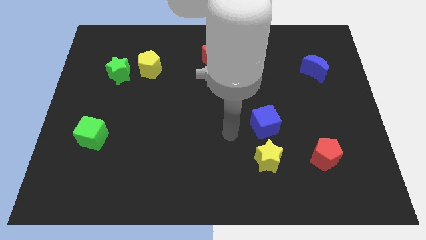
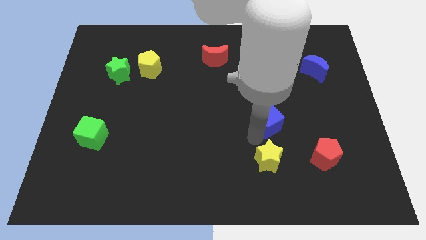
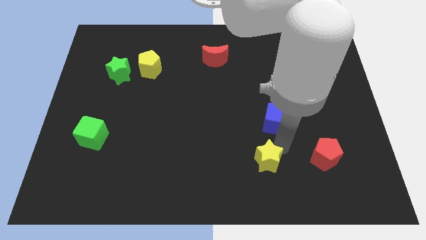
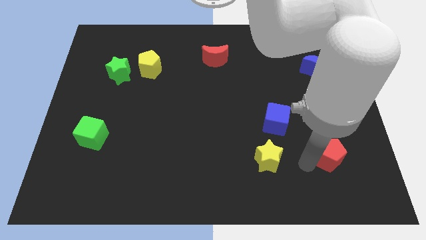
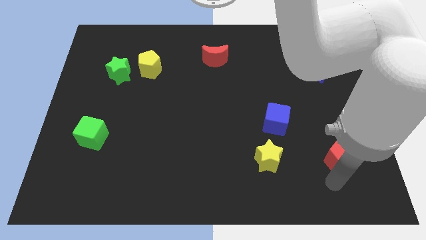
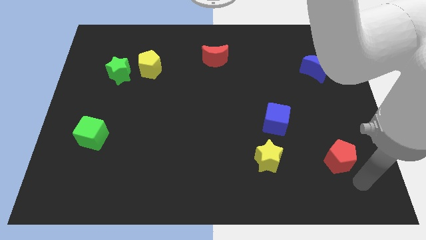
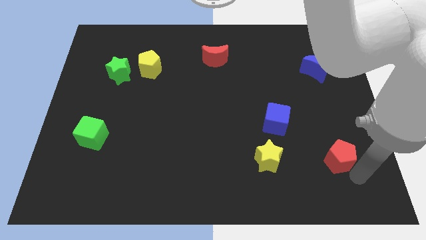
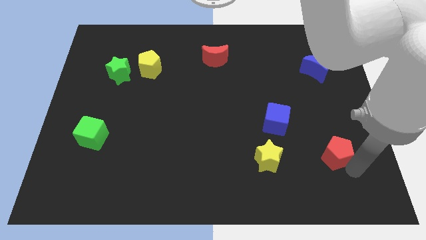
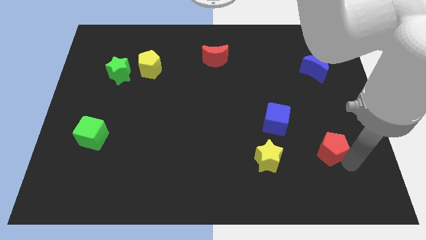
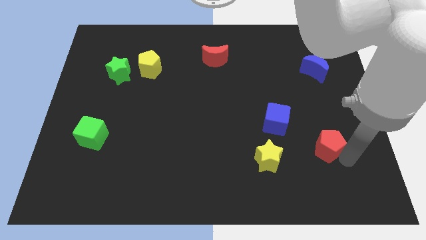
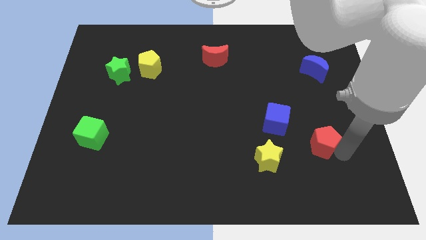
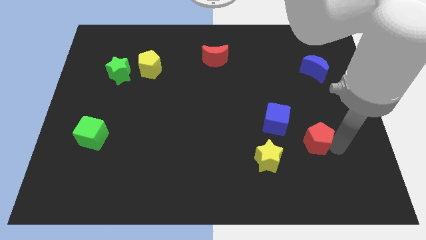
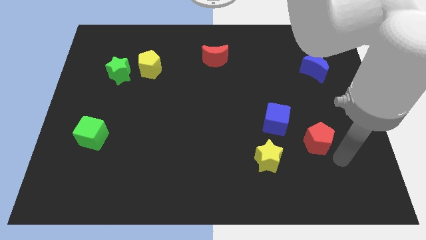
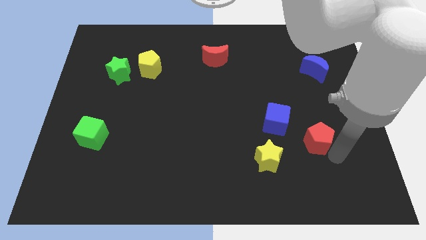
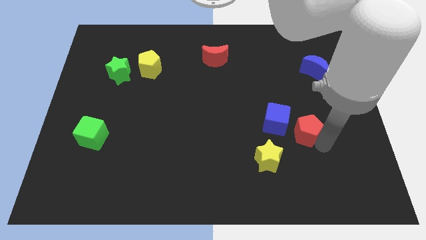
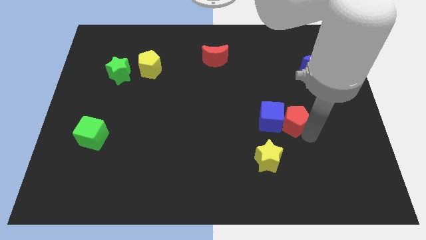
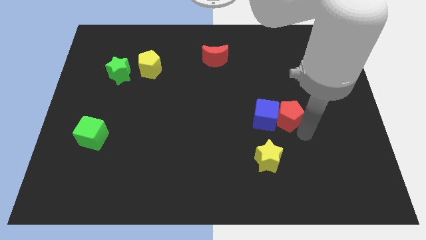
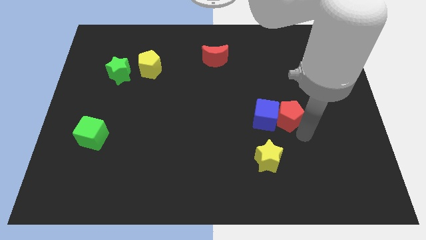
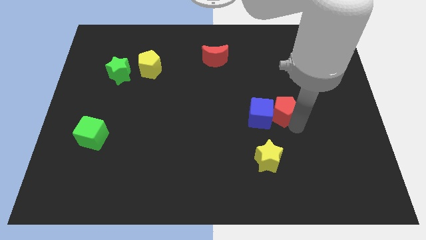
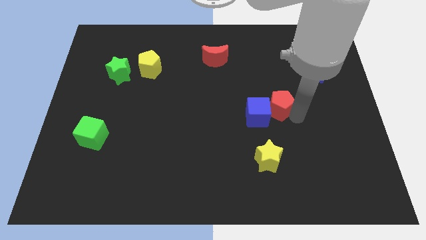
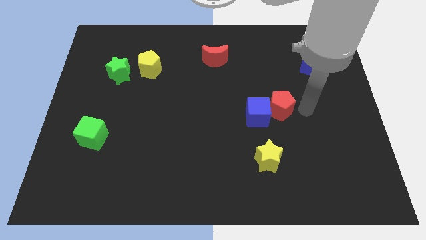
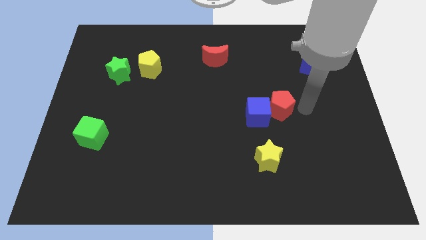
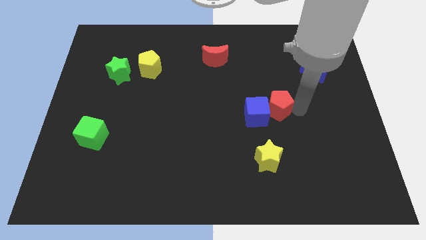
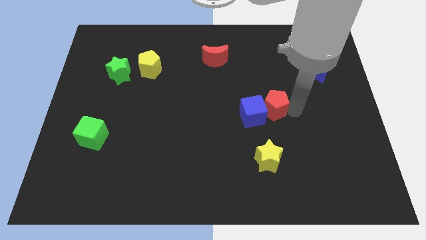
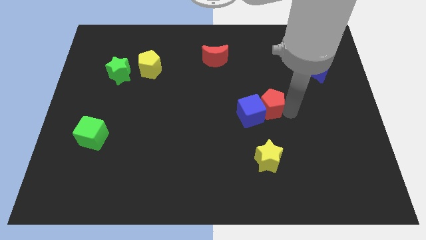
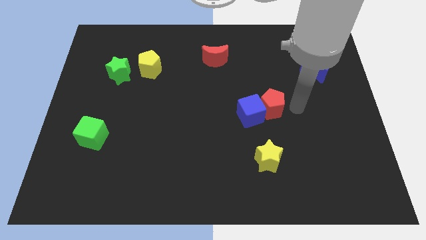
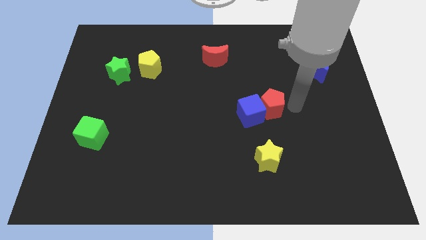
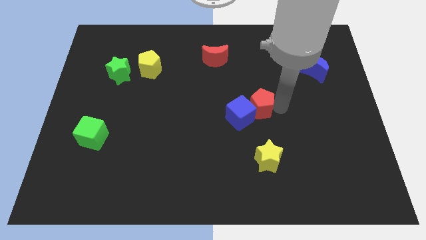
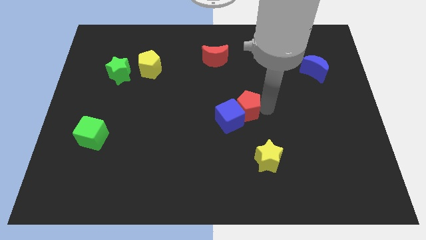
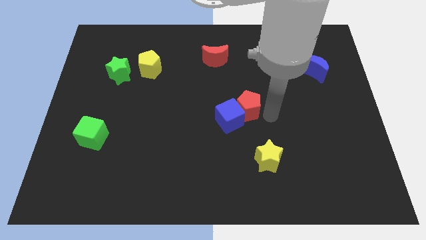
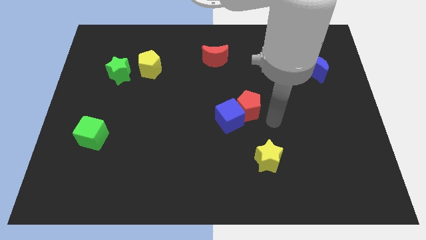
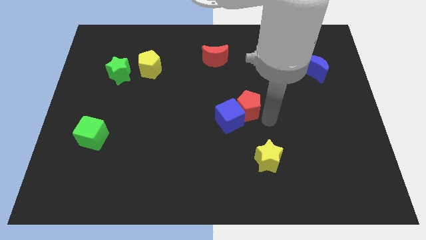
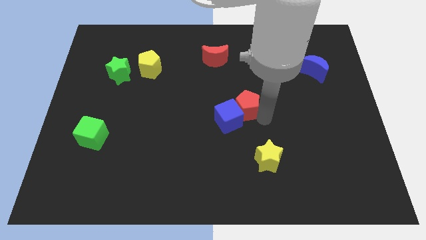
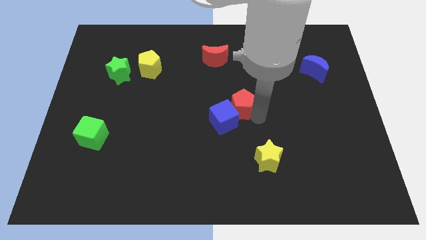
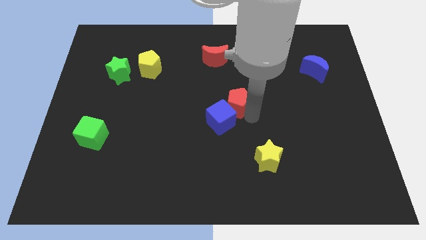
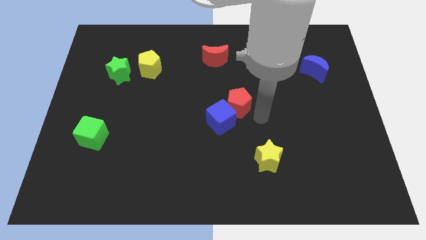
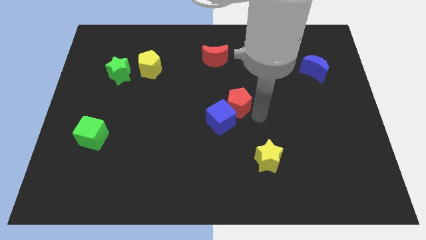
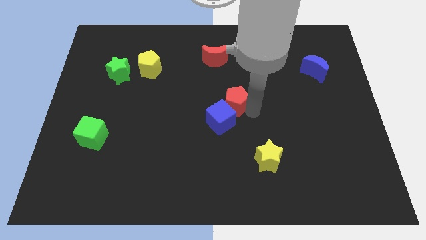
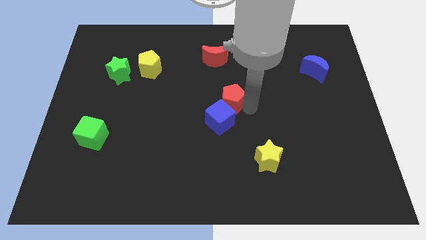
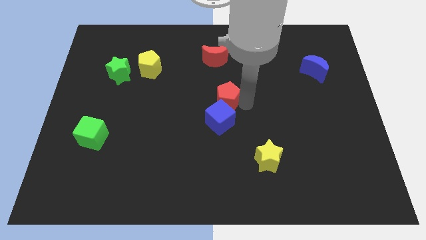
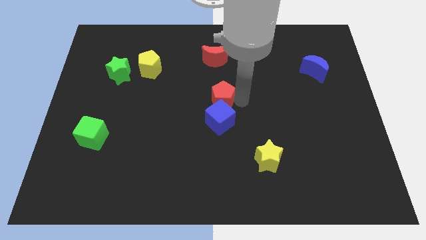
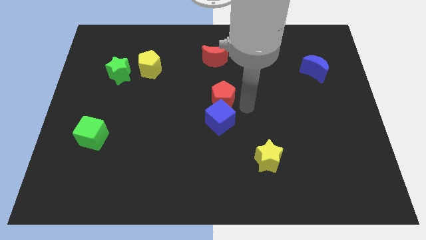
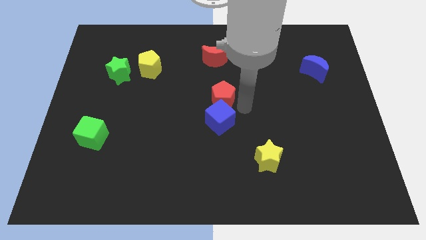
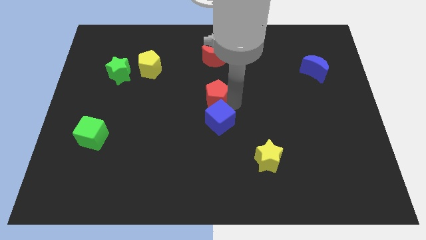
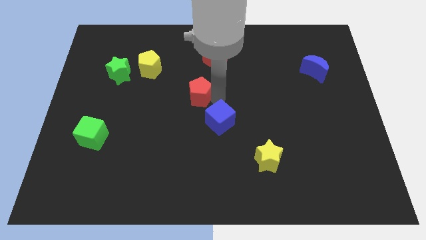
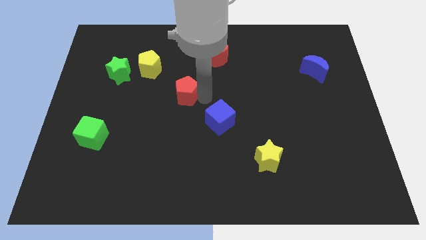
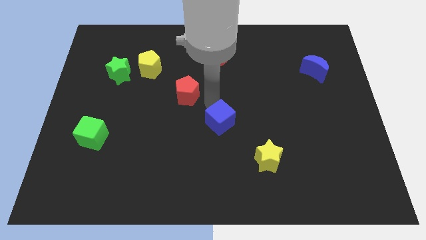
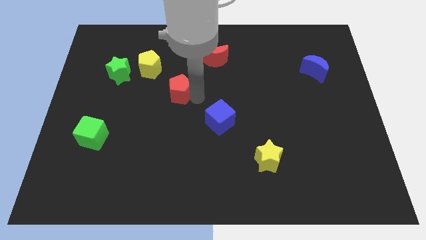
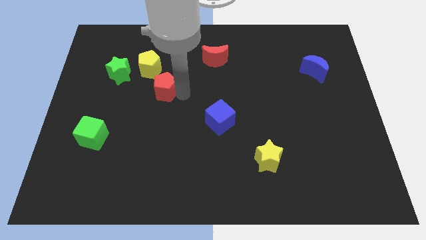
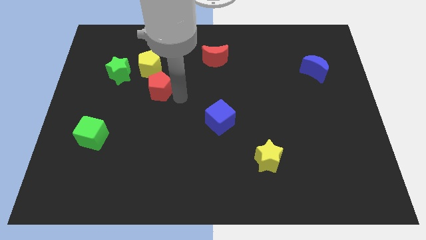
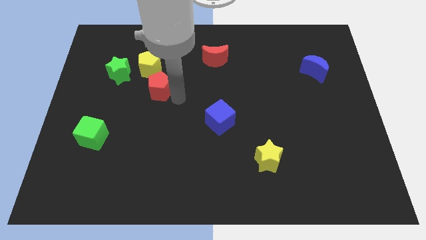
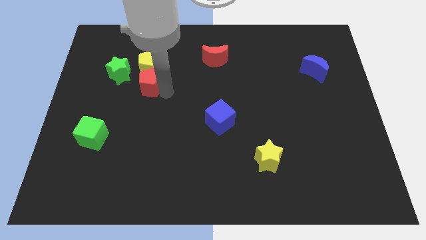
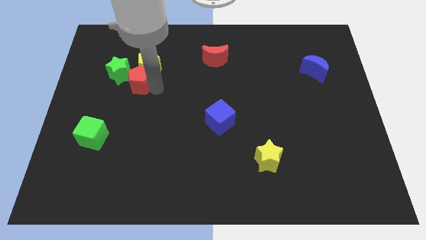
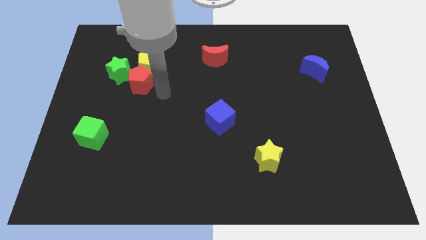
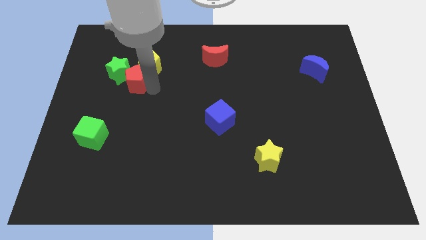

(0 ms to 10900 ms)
slide the red pentagon close to the green star
